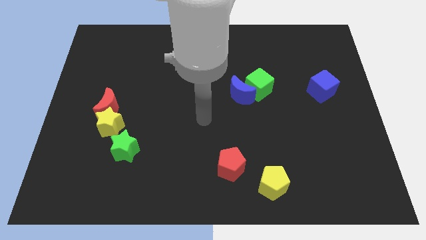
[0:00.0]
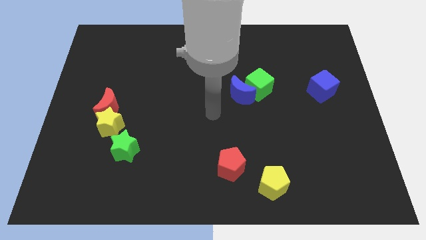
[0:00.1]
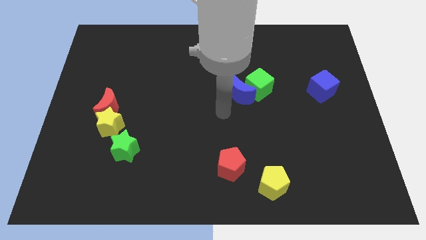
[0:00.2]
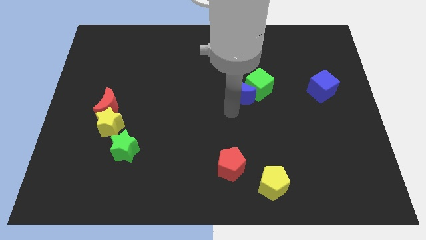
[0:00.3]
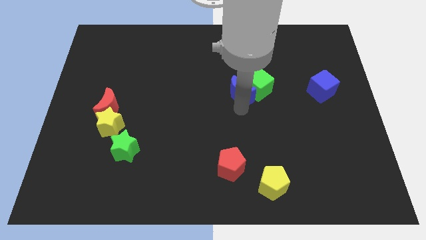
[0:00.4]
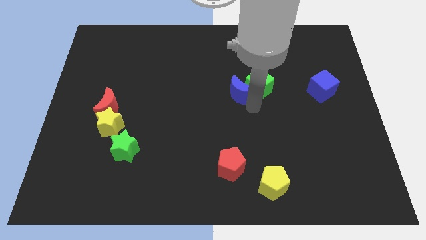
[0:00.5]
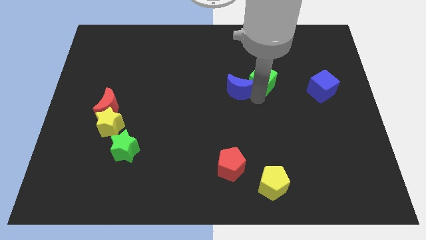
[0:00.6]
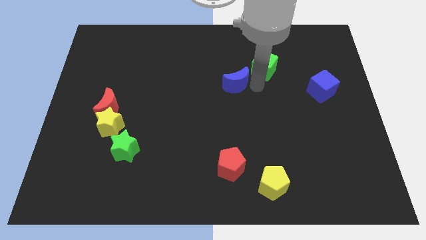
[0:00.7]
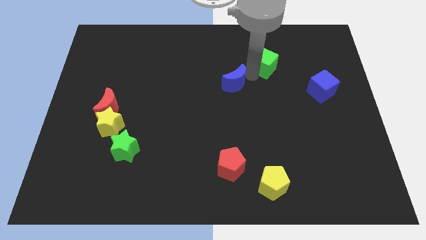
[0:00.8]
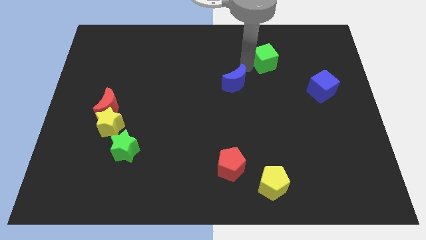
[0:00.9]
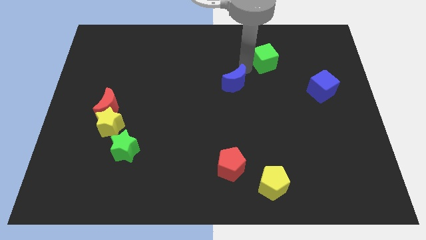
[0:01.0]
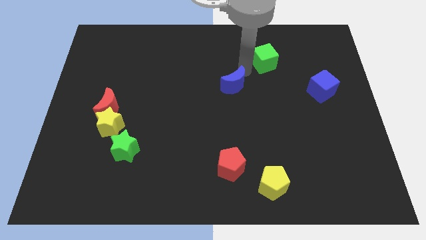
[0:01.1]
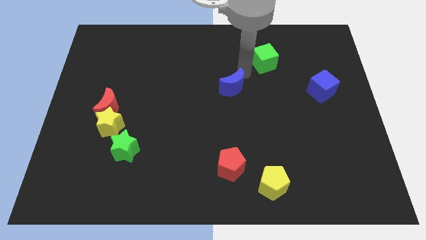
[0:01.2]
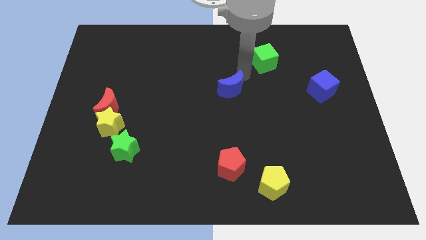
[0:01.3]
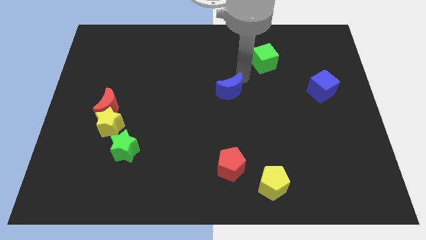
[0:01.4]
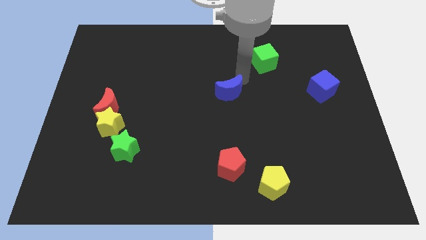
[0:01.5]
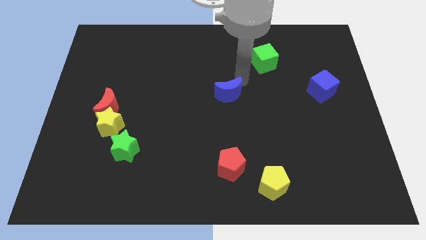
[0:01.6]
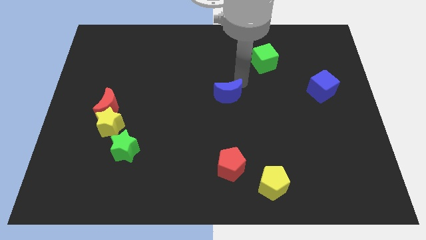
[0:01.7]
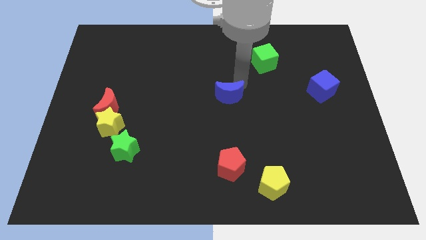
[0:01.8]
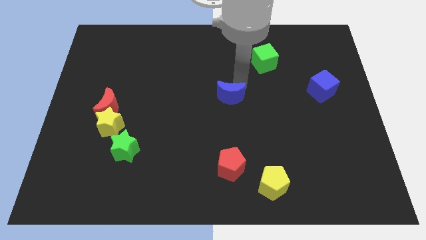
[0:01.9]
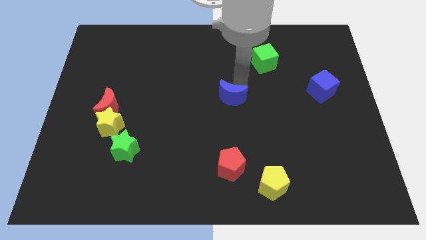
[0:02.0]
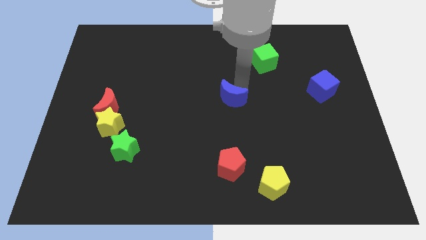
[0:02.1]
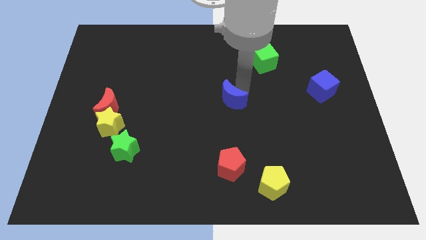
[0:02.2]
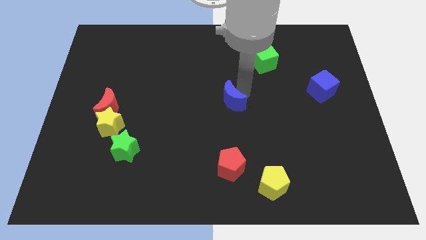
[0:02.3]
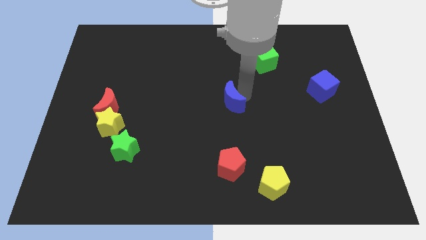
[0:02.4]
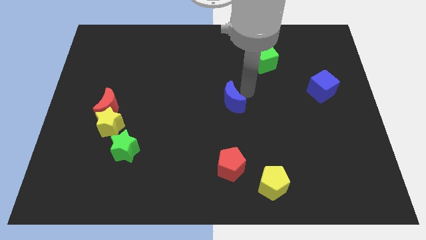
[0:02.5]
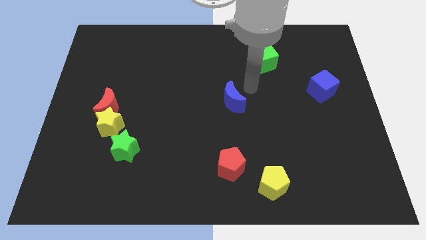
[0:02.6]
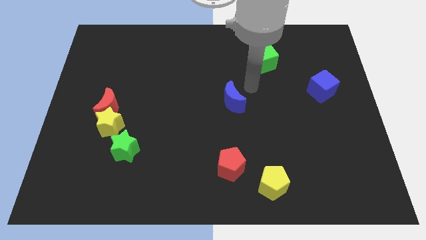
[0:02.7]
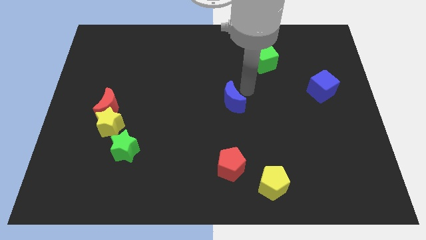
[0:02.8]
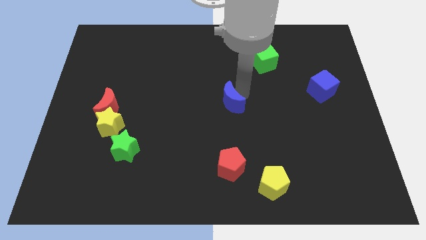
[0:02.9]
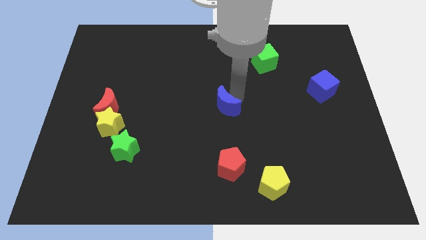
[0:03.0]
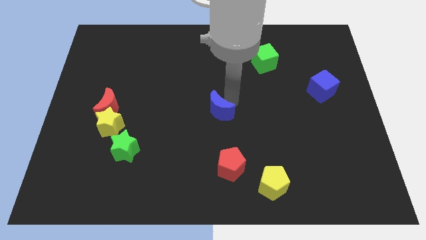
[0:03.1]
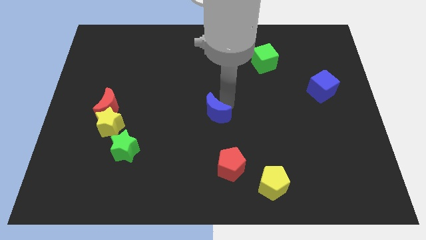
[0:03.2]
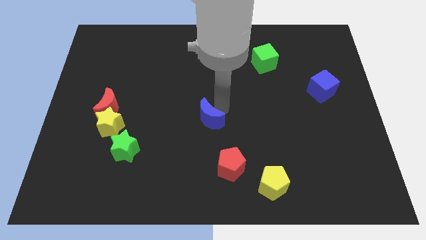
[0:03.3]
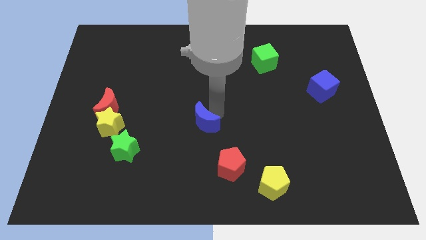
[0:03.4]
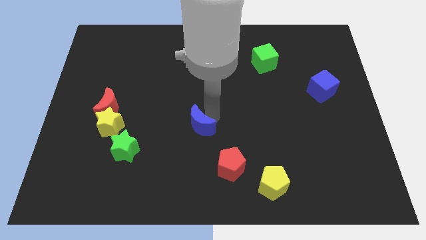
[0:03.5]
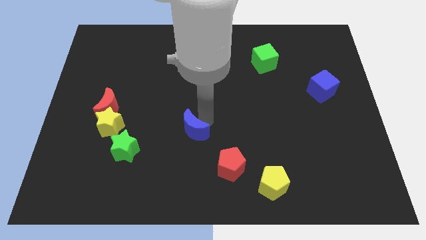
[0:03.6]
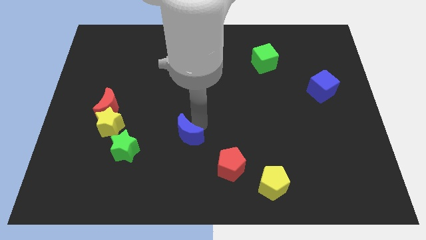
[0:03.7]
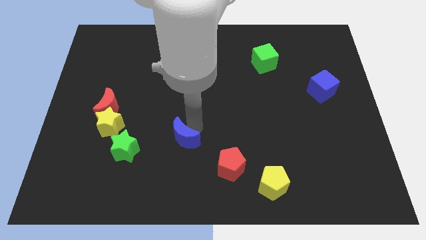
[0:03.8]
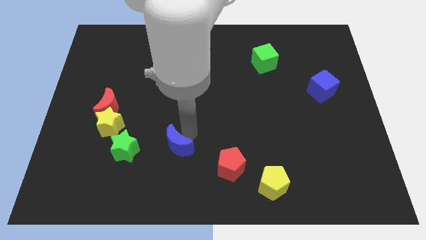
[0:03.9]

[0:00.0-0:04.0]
move the blue moon downwards and left diagonally

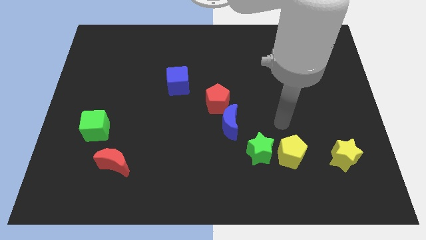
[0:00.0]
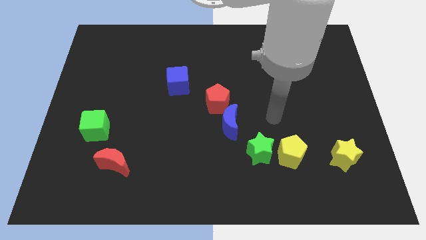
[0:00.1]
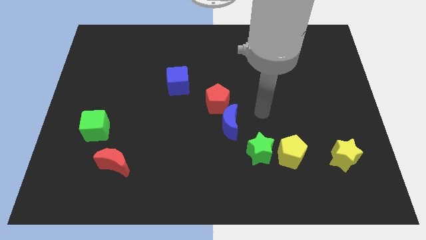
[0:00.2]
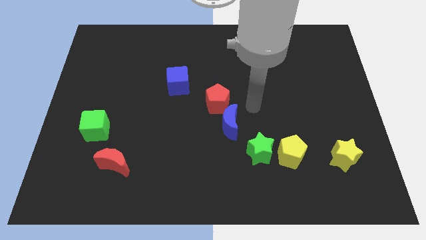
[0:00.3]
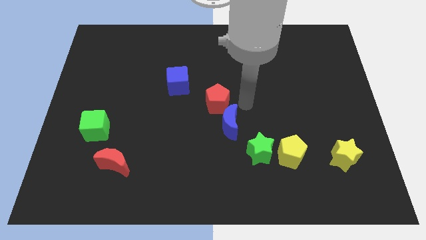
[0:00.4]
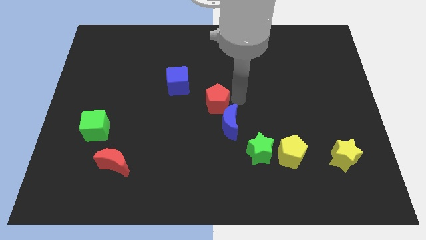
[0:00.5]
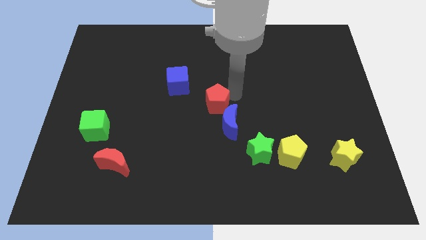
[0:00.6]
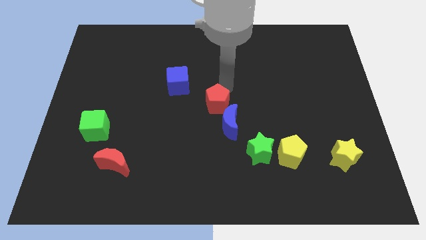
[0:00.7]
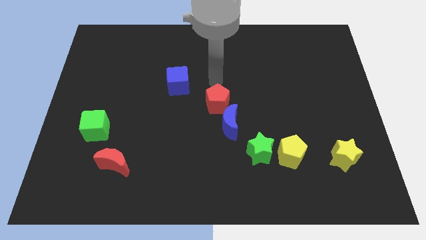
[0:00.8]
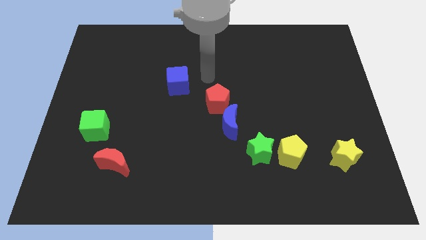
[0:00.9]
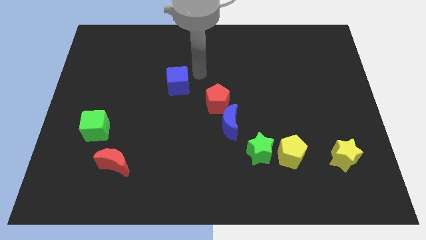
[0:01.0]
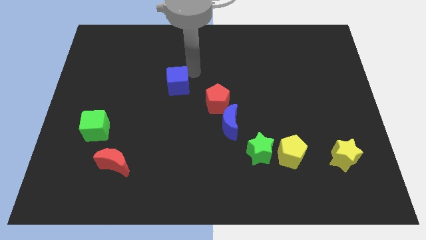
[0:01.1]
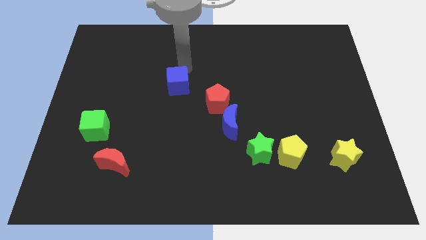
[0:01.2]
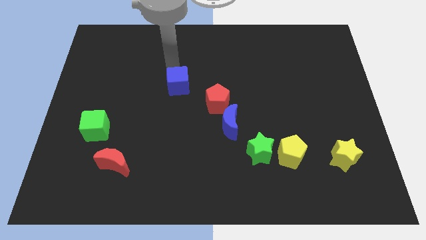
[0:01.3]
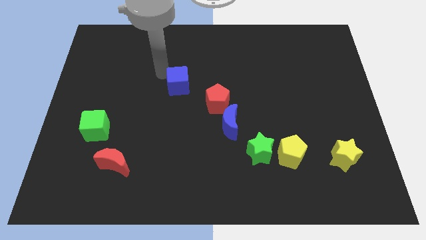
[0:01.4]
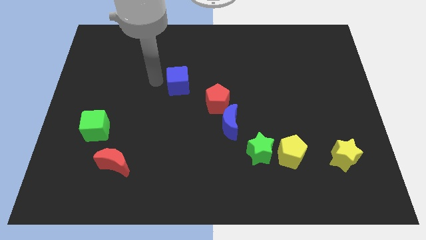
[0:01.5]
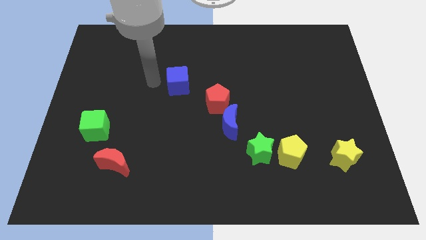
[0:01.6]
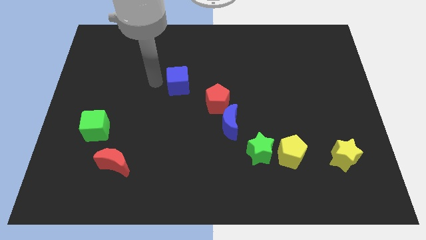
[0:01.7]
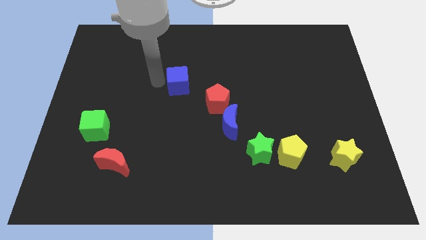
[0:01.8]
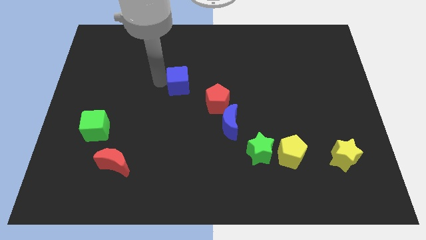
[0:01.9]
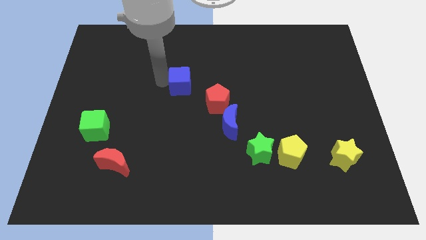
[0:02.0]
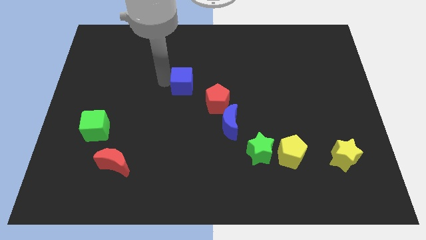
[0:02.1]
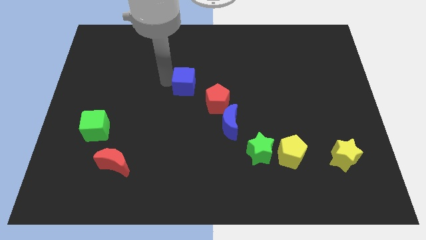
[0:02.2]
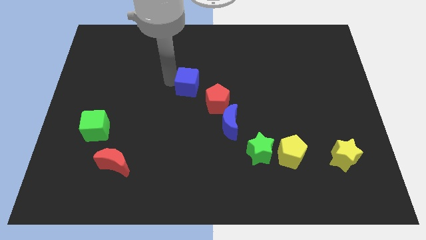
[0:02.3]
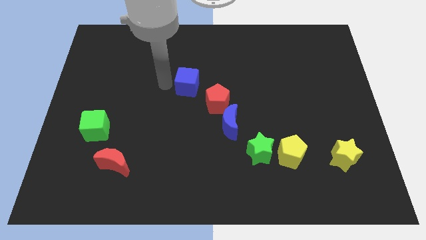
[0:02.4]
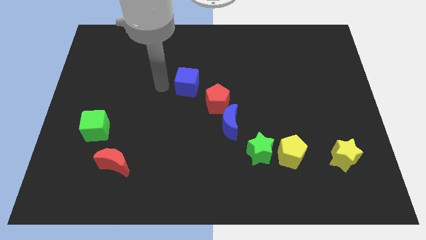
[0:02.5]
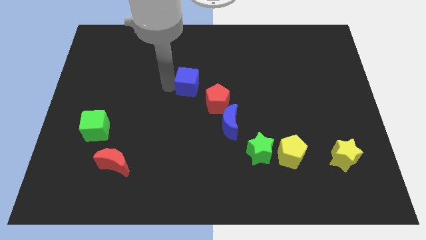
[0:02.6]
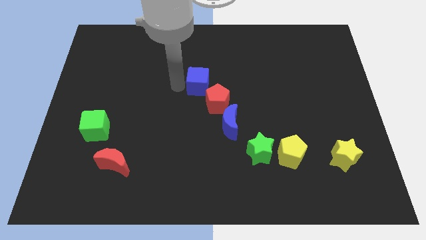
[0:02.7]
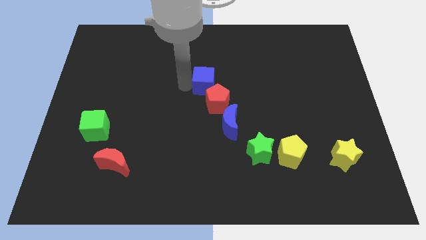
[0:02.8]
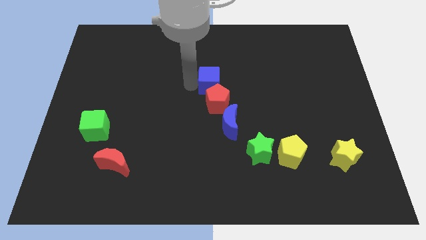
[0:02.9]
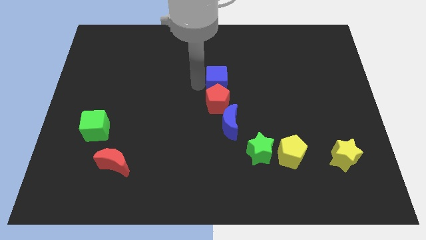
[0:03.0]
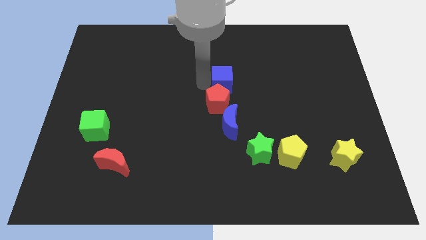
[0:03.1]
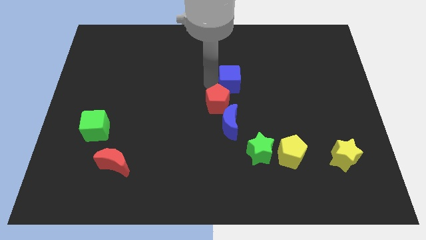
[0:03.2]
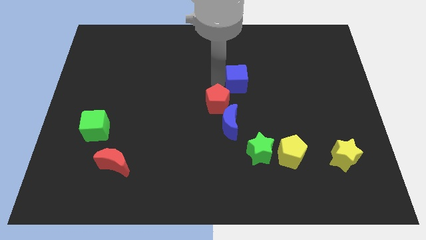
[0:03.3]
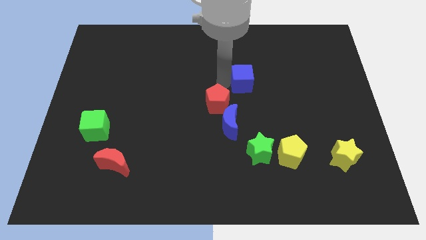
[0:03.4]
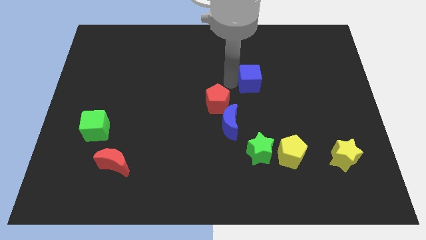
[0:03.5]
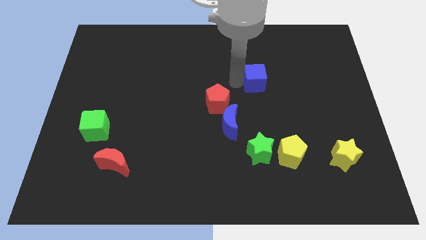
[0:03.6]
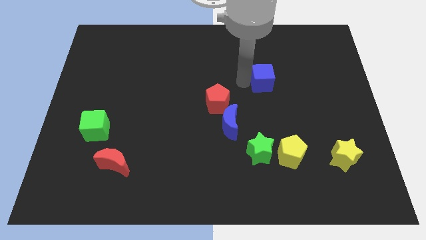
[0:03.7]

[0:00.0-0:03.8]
push the blue cube to the right

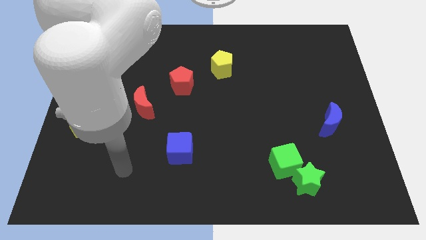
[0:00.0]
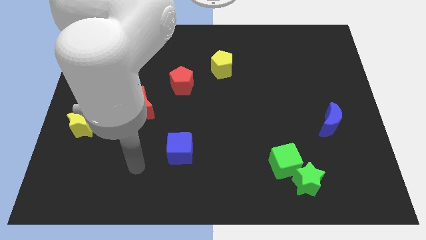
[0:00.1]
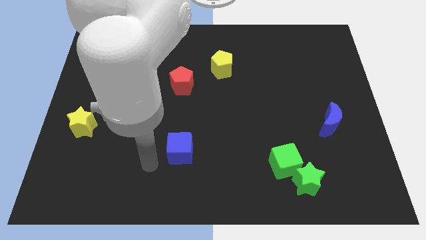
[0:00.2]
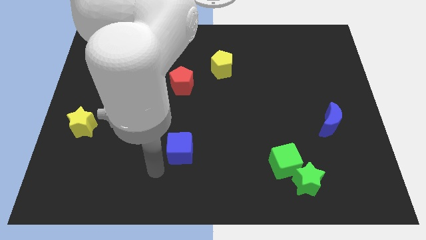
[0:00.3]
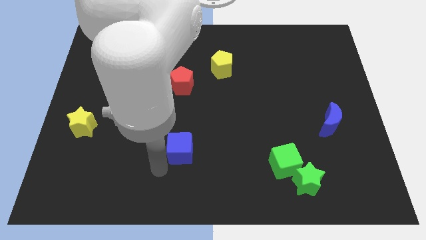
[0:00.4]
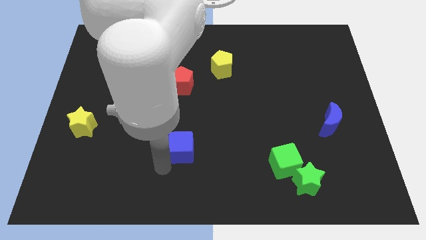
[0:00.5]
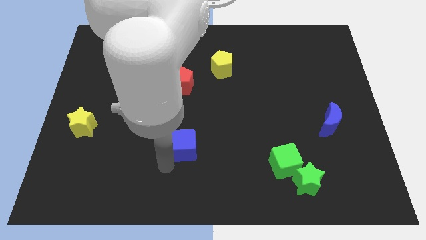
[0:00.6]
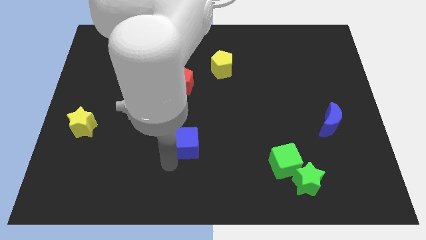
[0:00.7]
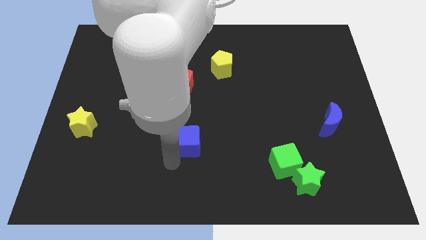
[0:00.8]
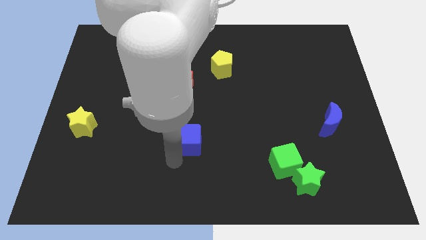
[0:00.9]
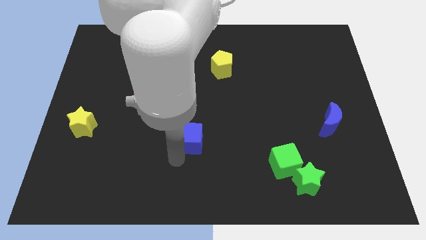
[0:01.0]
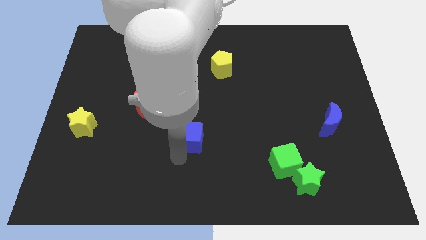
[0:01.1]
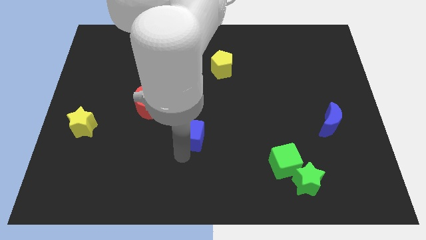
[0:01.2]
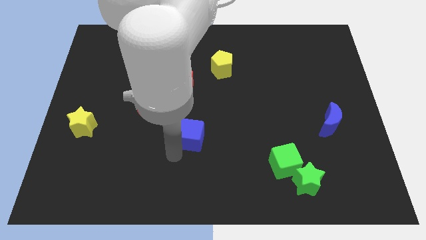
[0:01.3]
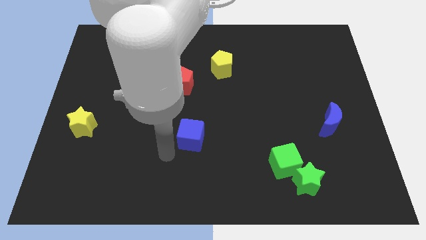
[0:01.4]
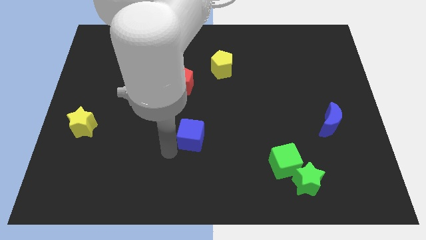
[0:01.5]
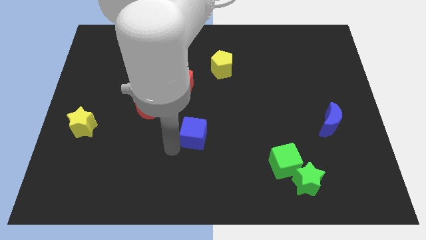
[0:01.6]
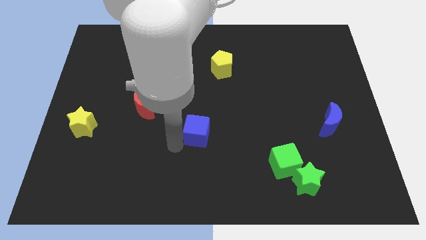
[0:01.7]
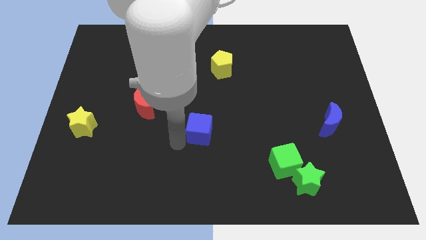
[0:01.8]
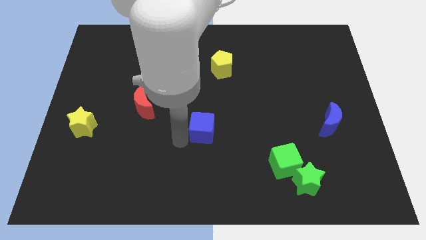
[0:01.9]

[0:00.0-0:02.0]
slide the blue cube up and then right a little bit
